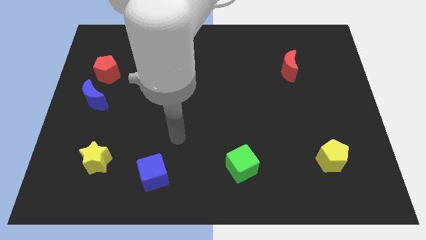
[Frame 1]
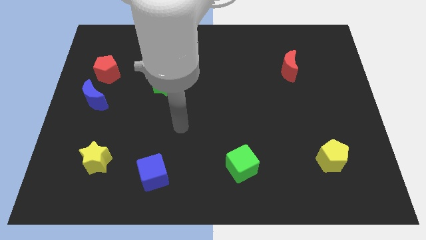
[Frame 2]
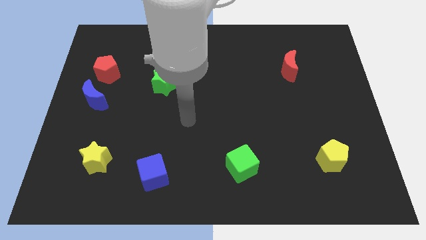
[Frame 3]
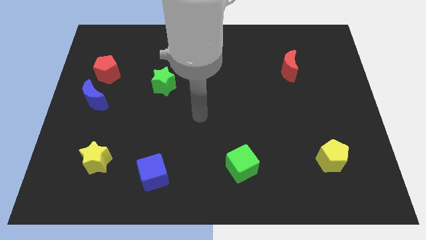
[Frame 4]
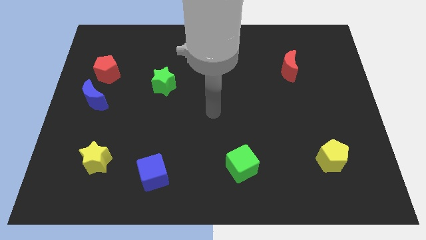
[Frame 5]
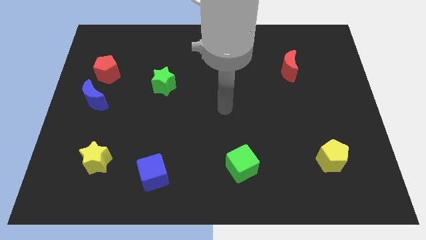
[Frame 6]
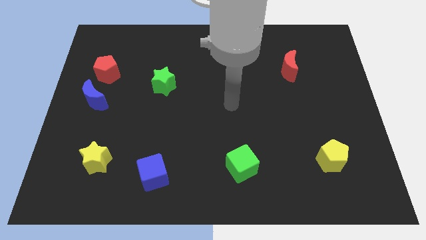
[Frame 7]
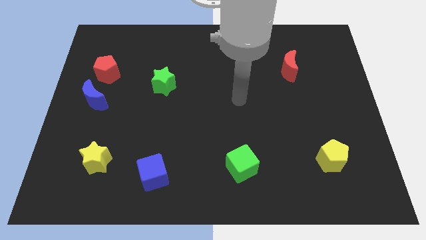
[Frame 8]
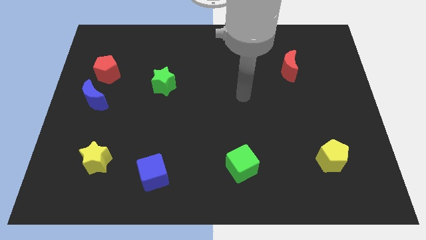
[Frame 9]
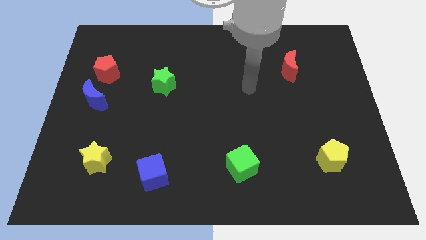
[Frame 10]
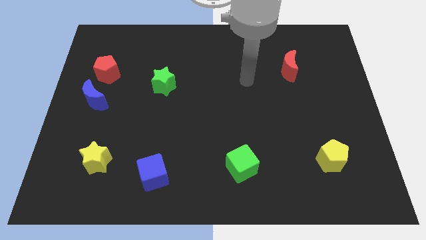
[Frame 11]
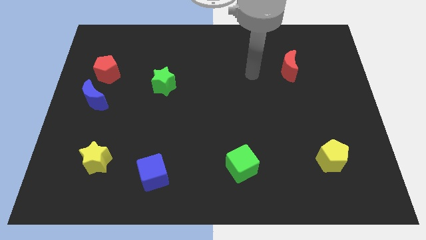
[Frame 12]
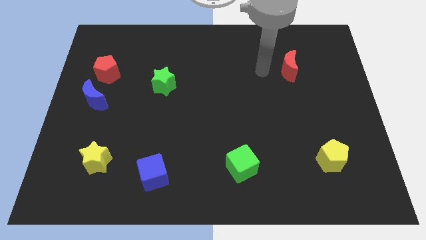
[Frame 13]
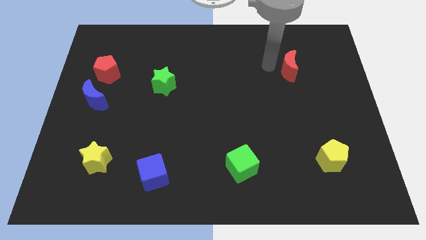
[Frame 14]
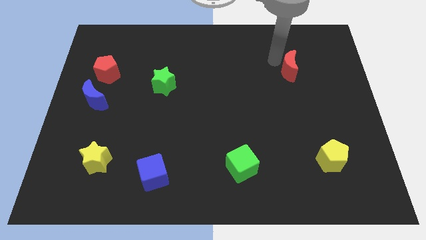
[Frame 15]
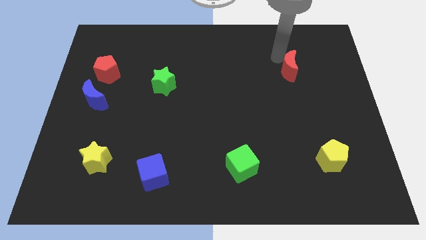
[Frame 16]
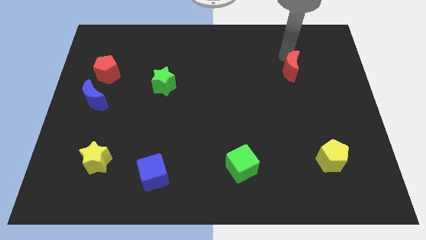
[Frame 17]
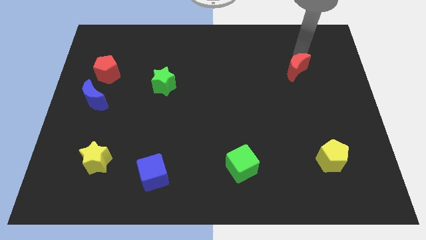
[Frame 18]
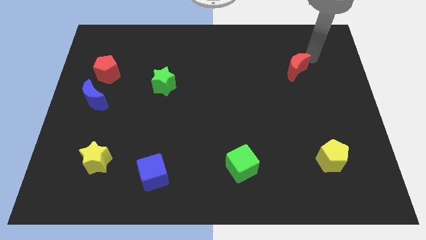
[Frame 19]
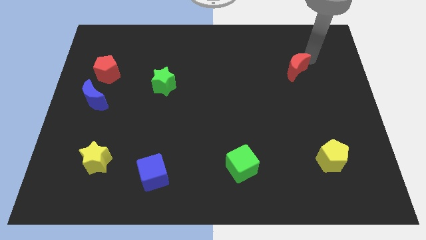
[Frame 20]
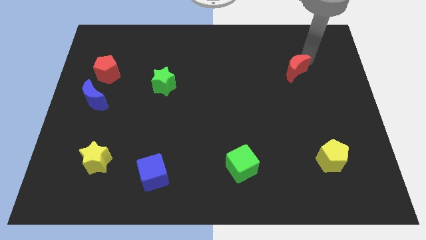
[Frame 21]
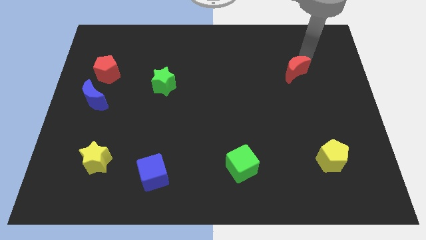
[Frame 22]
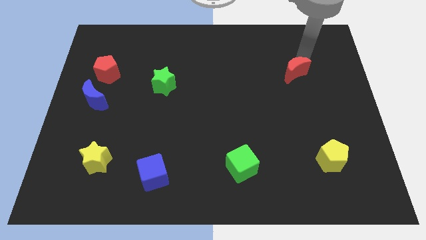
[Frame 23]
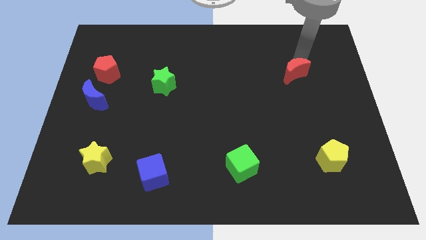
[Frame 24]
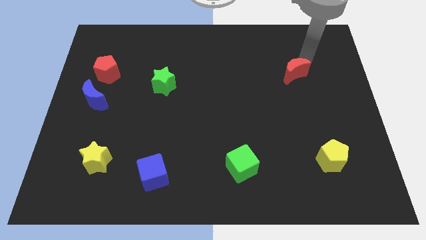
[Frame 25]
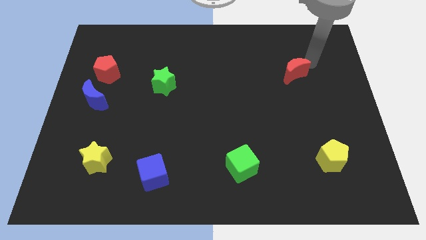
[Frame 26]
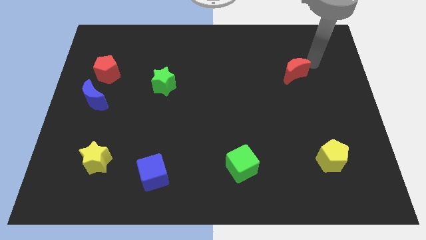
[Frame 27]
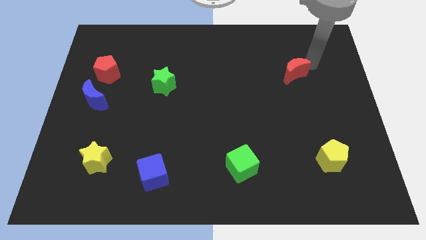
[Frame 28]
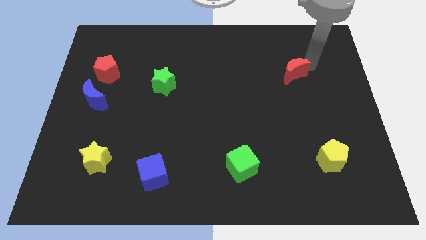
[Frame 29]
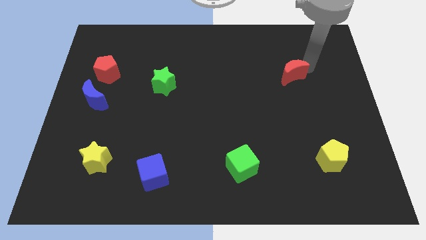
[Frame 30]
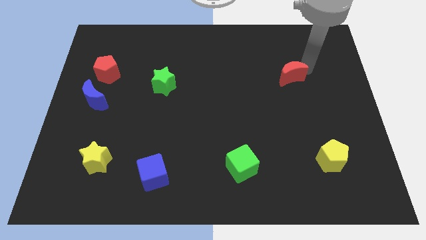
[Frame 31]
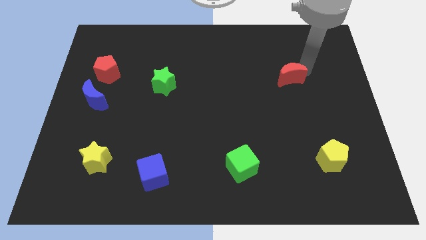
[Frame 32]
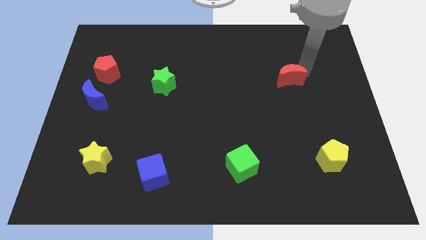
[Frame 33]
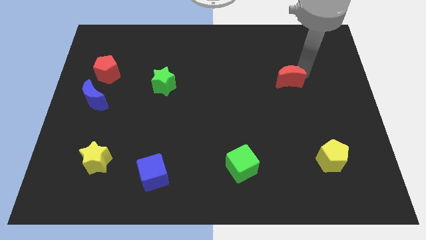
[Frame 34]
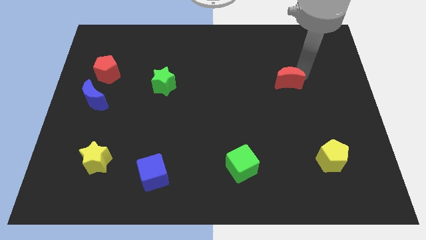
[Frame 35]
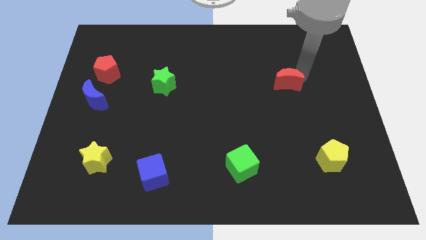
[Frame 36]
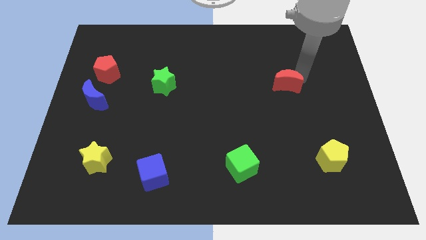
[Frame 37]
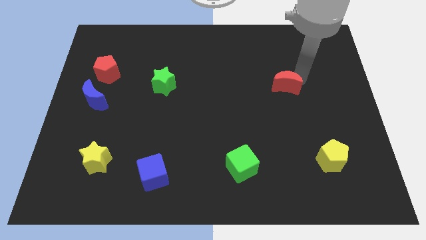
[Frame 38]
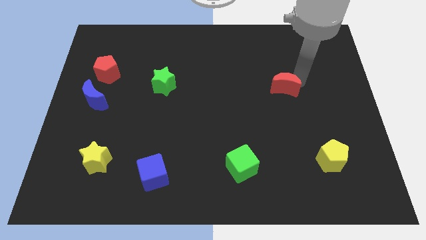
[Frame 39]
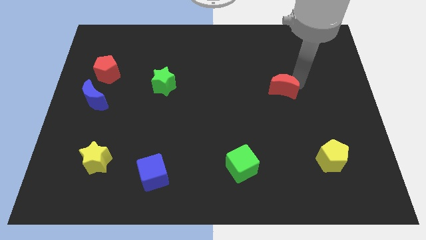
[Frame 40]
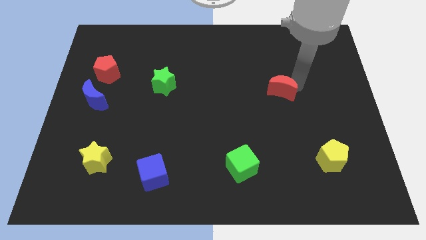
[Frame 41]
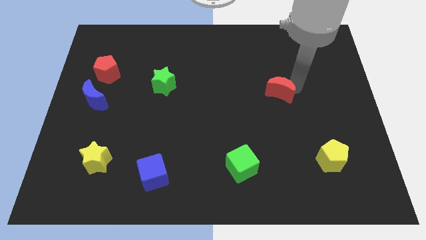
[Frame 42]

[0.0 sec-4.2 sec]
slightly move the red moon down and then left

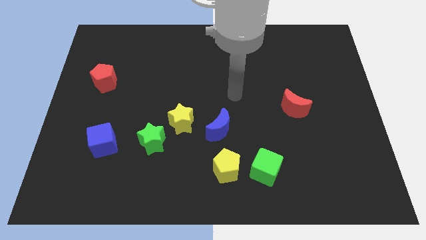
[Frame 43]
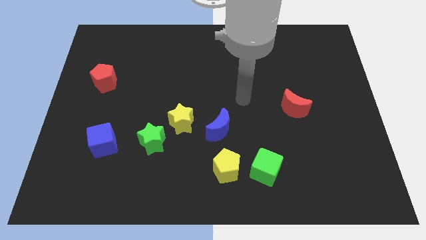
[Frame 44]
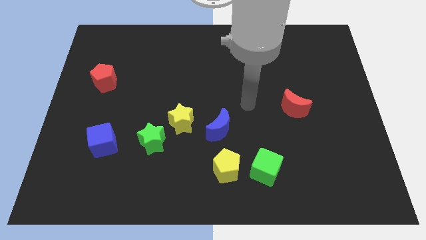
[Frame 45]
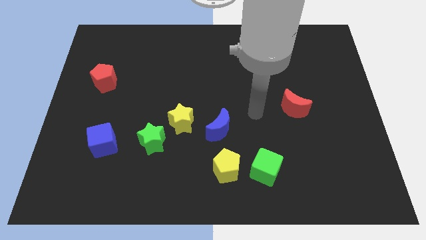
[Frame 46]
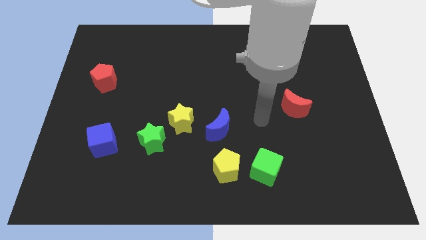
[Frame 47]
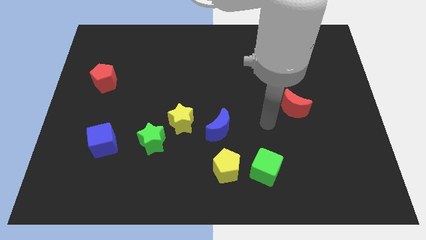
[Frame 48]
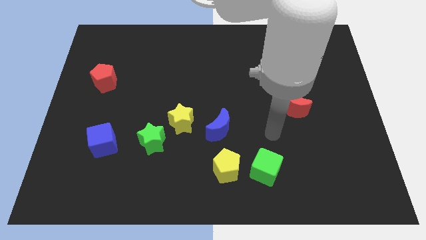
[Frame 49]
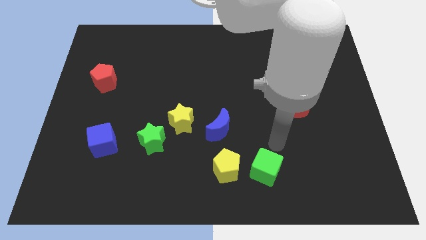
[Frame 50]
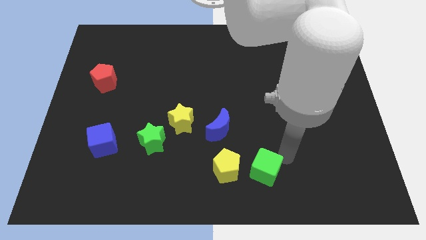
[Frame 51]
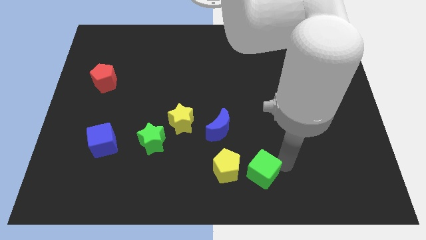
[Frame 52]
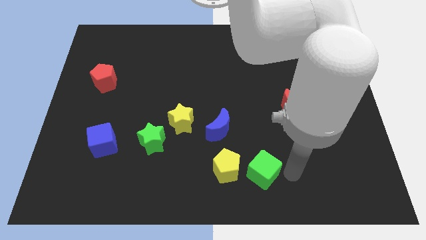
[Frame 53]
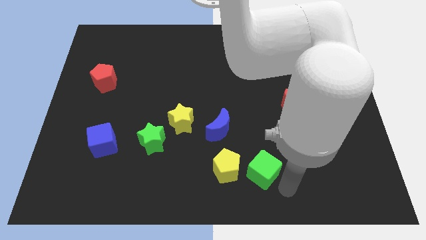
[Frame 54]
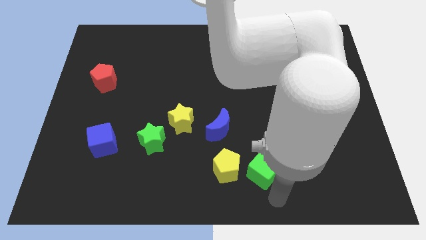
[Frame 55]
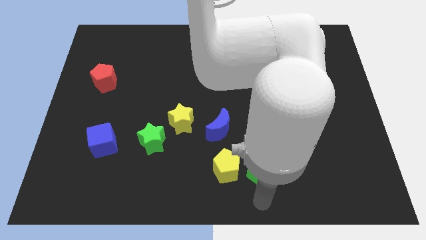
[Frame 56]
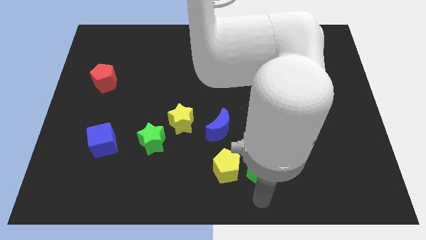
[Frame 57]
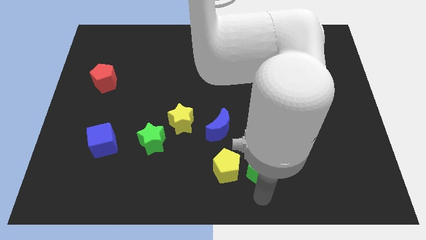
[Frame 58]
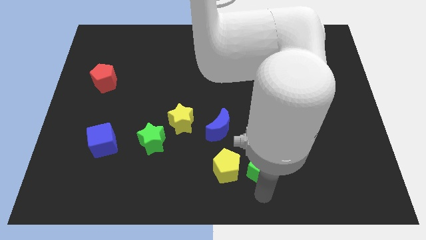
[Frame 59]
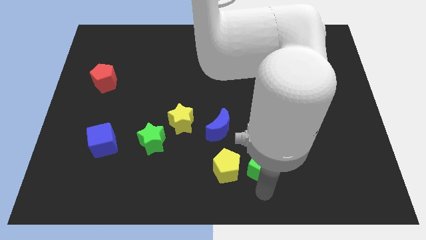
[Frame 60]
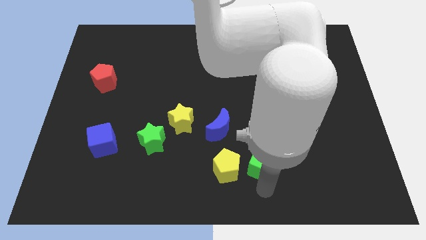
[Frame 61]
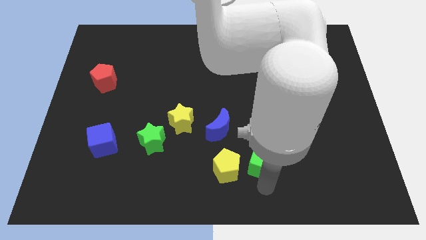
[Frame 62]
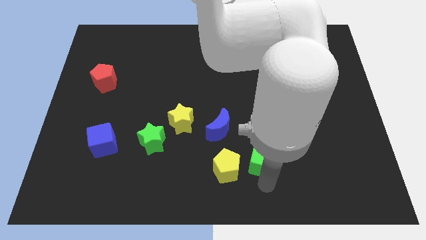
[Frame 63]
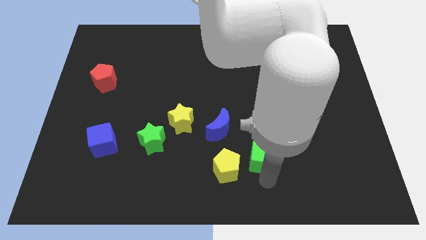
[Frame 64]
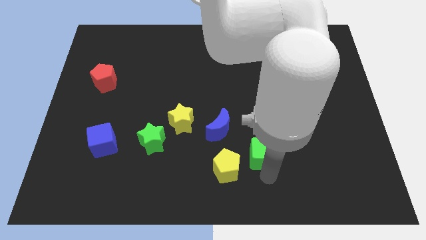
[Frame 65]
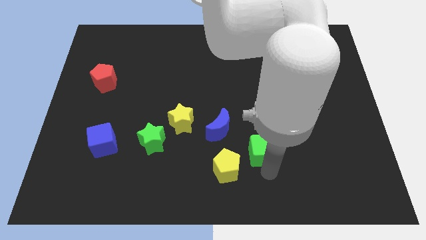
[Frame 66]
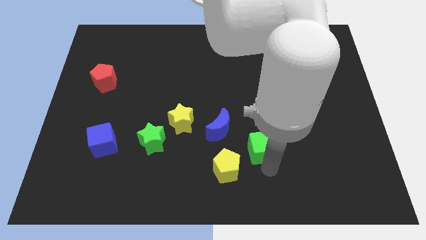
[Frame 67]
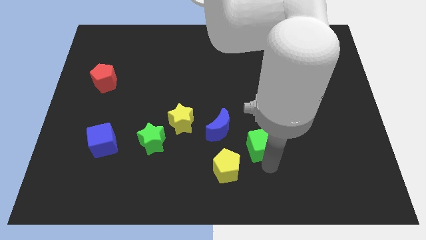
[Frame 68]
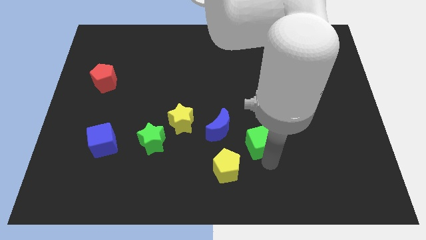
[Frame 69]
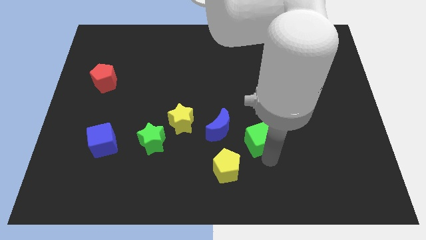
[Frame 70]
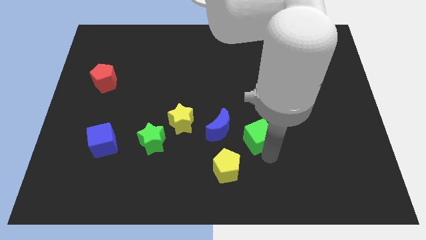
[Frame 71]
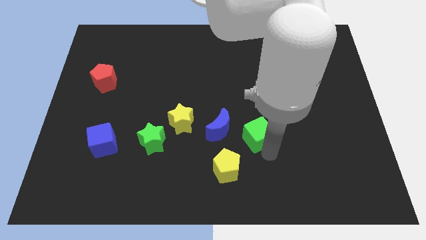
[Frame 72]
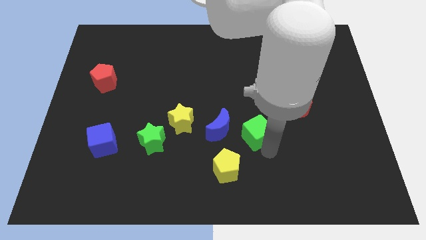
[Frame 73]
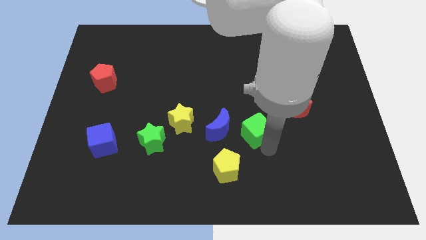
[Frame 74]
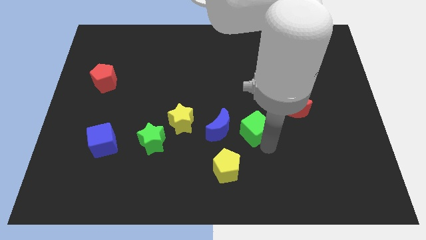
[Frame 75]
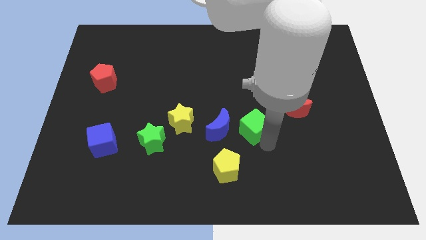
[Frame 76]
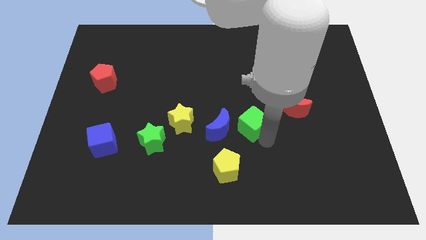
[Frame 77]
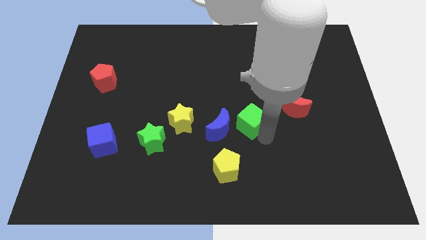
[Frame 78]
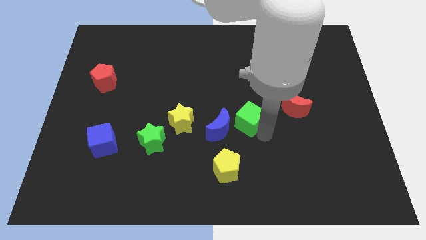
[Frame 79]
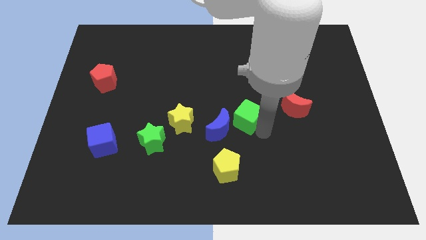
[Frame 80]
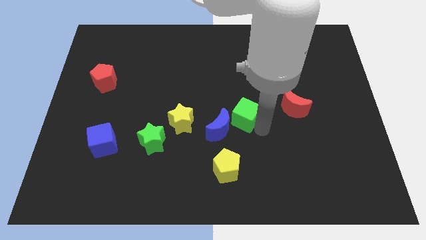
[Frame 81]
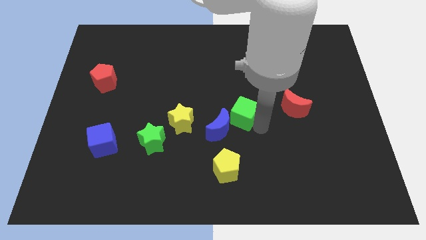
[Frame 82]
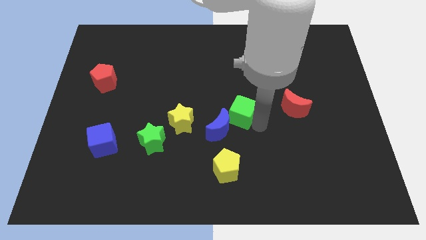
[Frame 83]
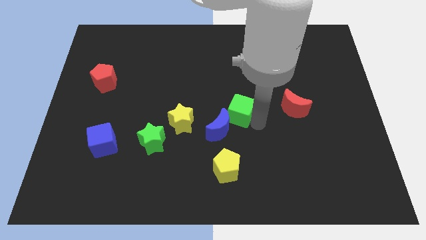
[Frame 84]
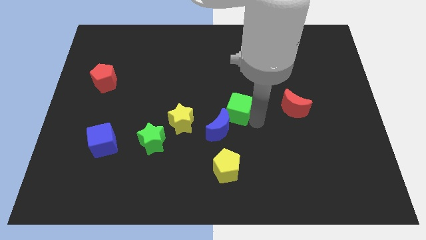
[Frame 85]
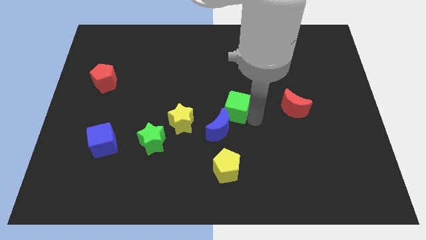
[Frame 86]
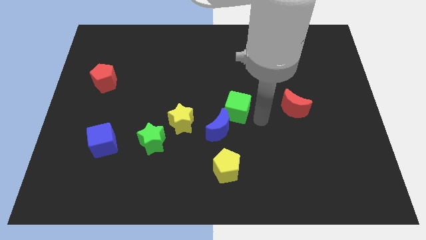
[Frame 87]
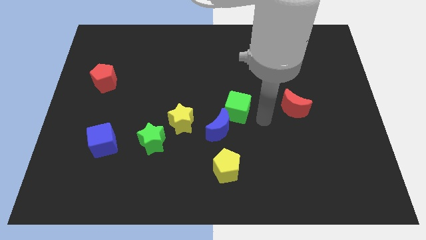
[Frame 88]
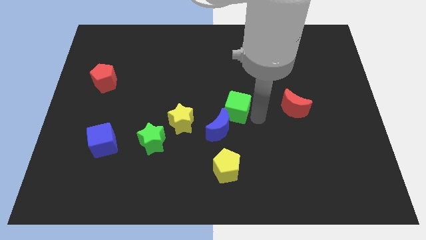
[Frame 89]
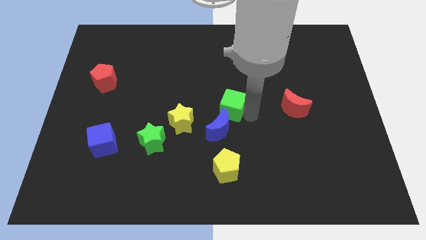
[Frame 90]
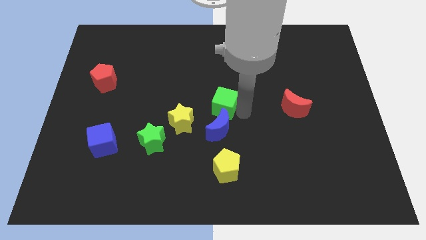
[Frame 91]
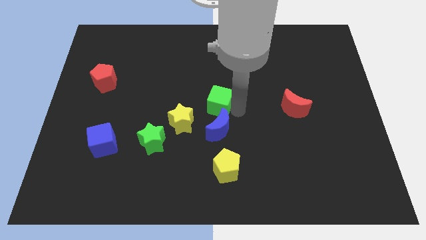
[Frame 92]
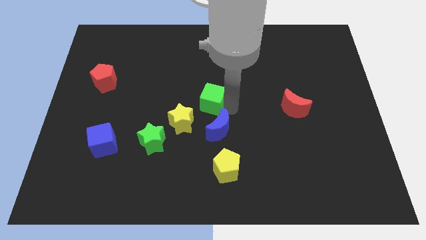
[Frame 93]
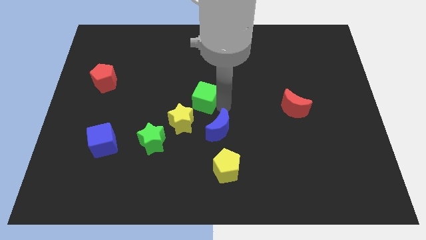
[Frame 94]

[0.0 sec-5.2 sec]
move the green cube diagonally up and left
